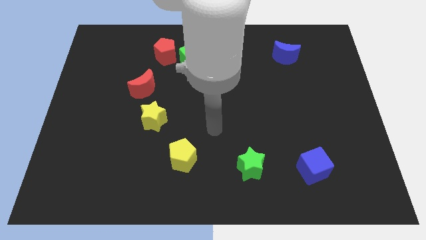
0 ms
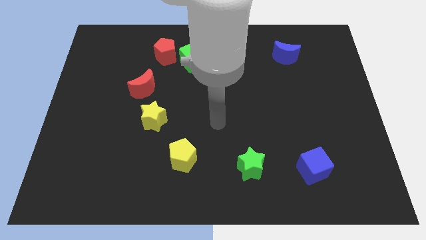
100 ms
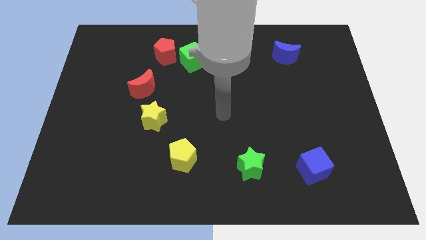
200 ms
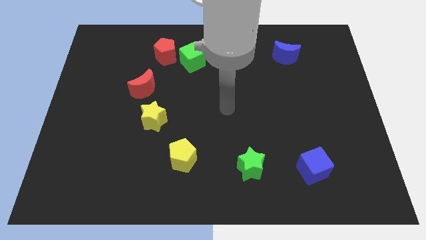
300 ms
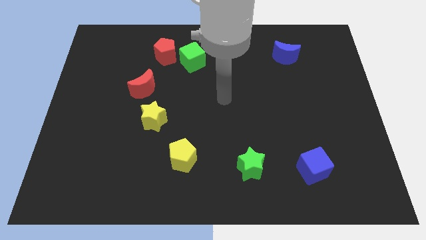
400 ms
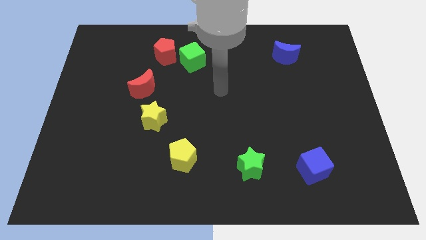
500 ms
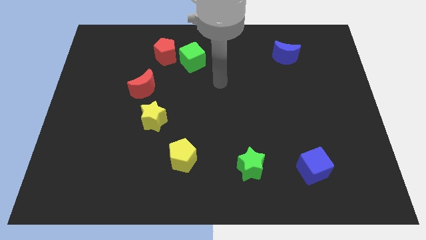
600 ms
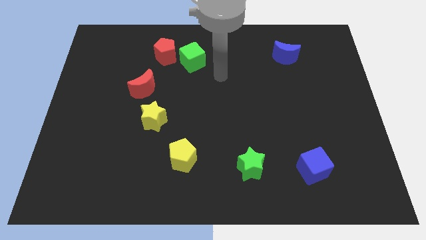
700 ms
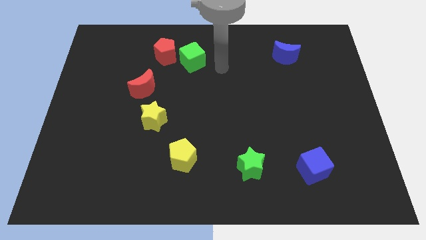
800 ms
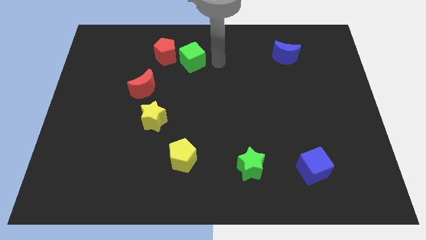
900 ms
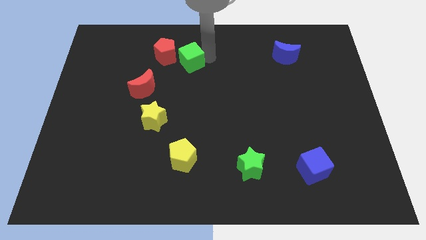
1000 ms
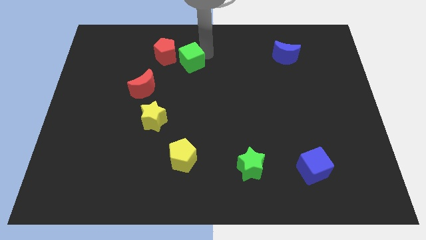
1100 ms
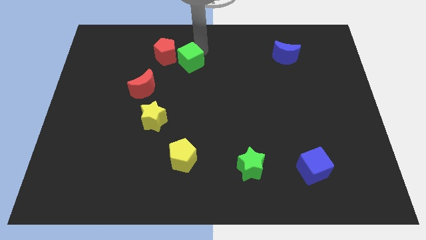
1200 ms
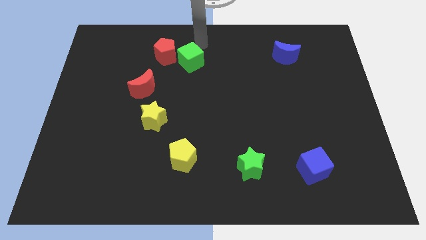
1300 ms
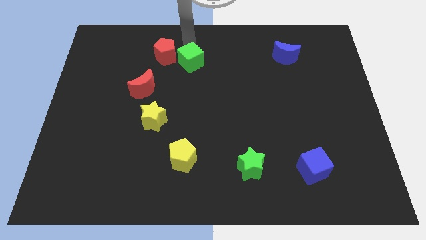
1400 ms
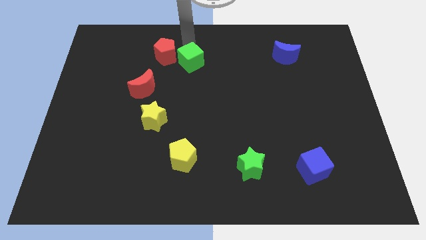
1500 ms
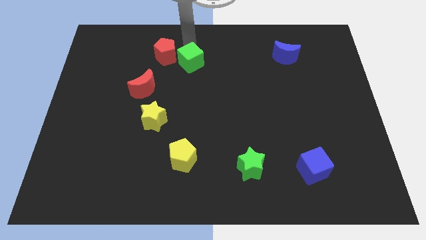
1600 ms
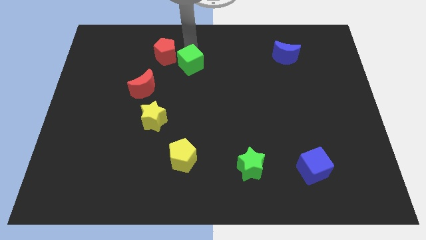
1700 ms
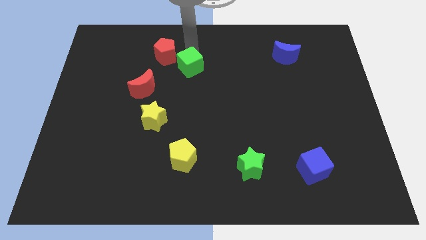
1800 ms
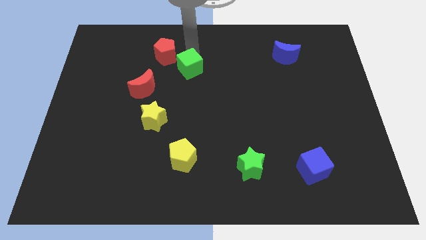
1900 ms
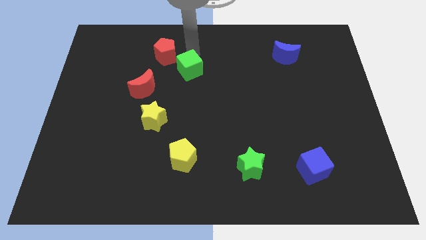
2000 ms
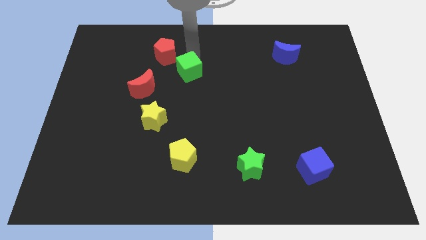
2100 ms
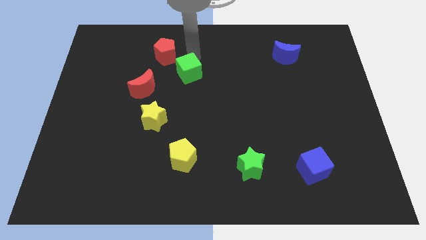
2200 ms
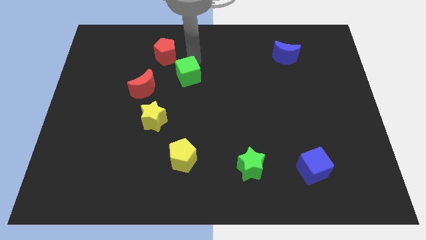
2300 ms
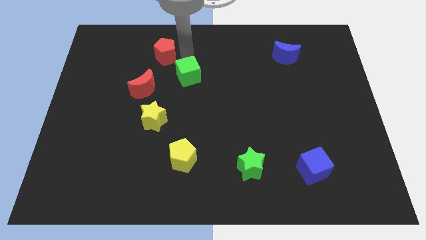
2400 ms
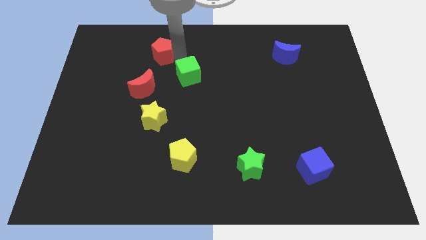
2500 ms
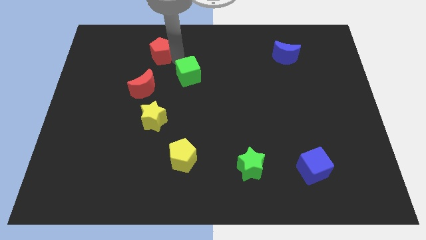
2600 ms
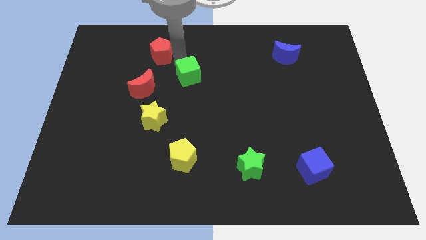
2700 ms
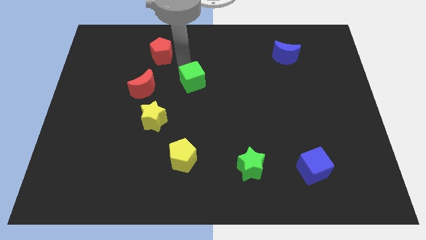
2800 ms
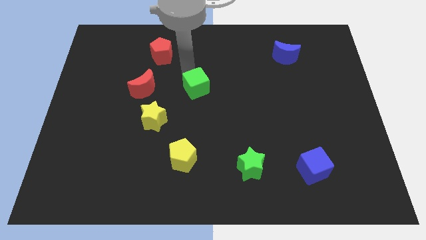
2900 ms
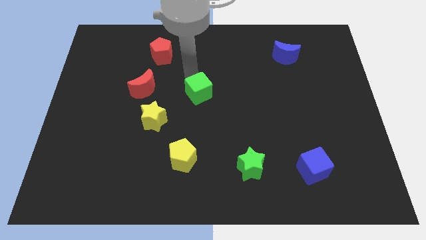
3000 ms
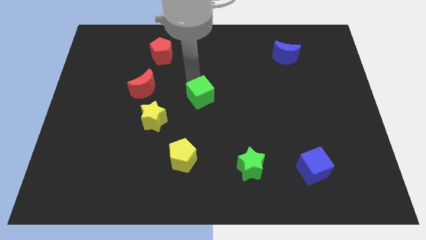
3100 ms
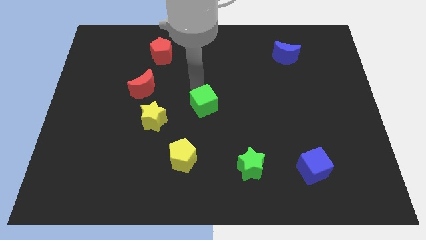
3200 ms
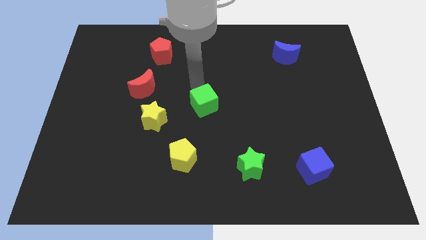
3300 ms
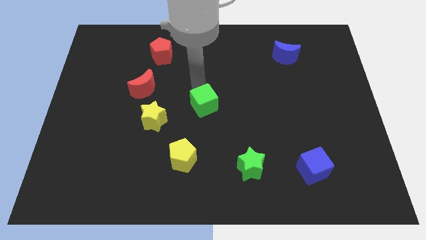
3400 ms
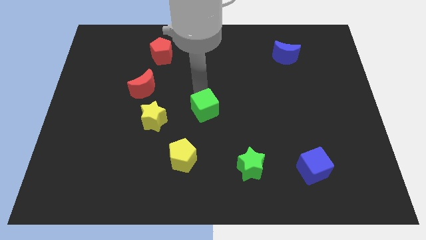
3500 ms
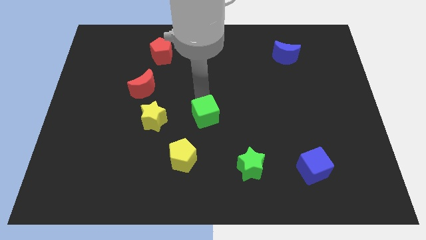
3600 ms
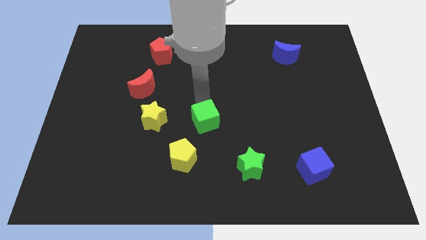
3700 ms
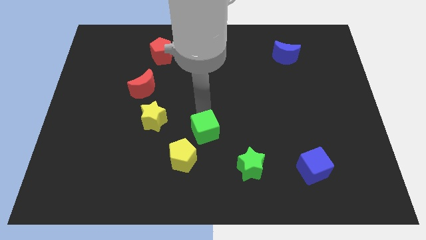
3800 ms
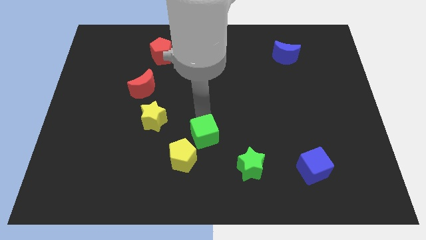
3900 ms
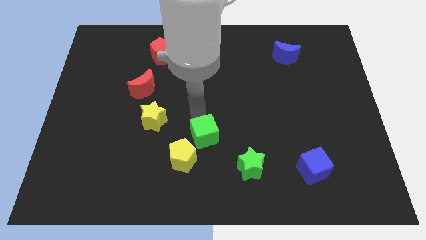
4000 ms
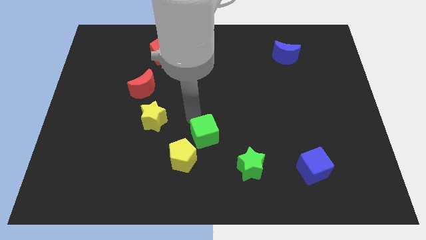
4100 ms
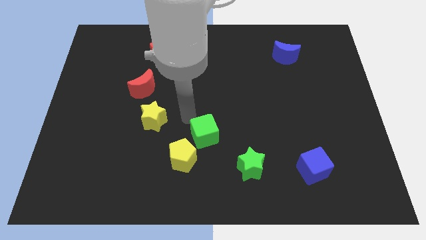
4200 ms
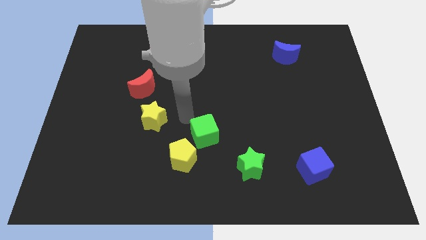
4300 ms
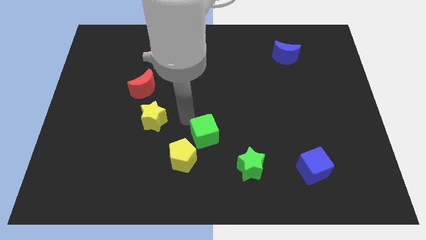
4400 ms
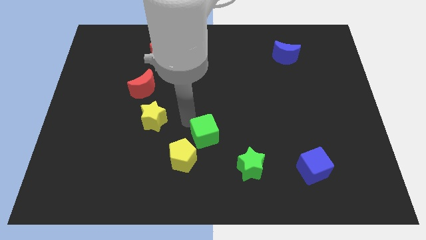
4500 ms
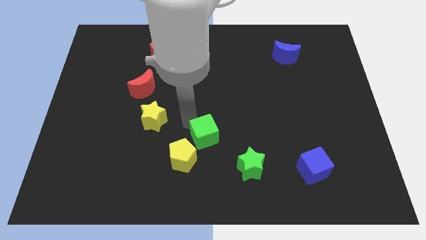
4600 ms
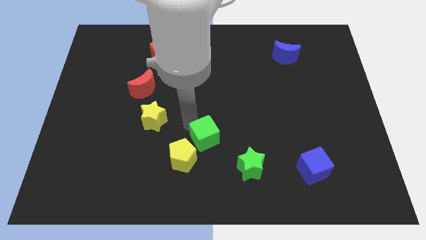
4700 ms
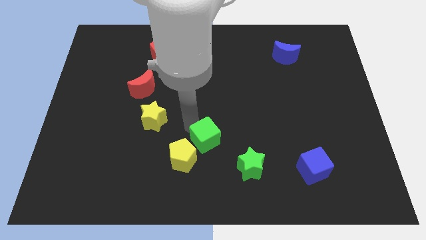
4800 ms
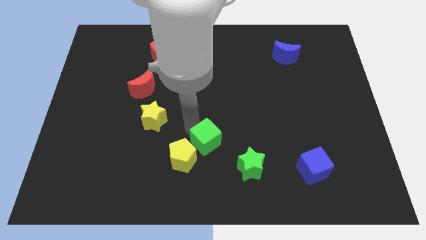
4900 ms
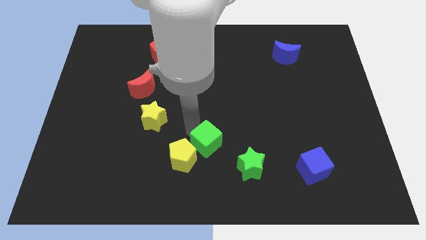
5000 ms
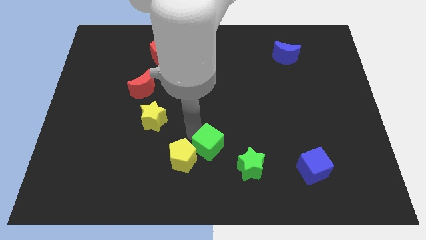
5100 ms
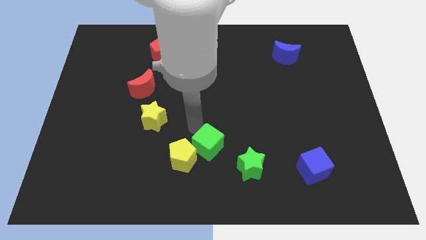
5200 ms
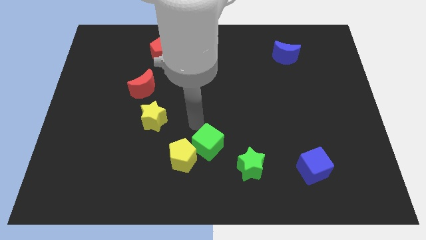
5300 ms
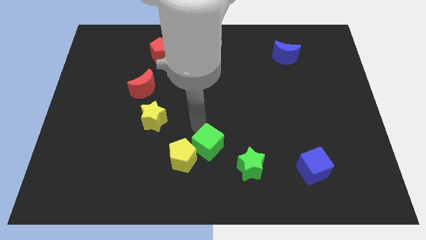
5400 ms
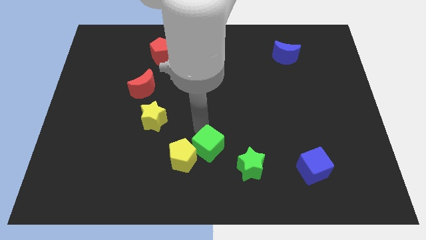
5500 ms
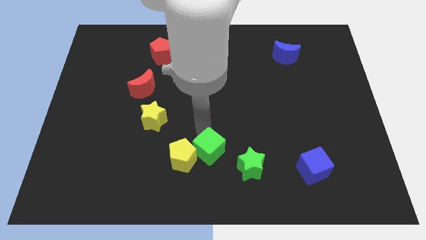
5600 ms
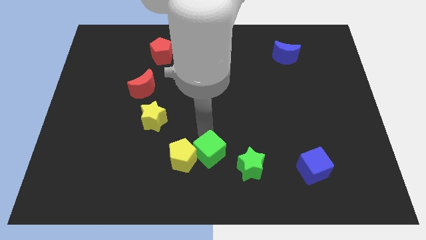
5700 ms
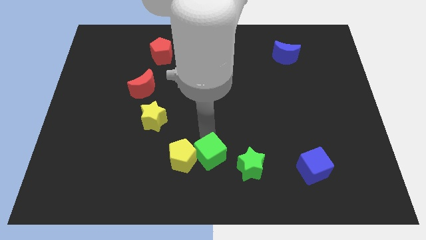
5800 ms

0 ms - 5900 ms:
push the green cube to the bottom

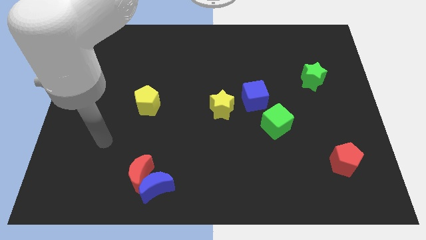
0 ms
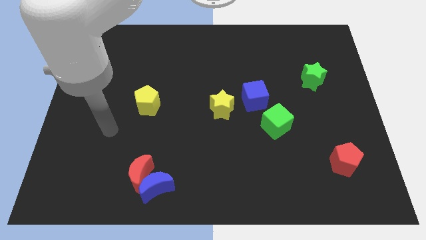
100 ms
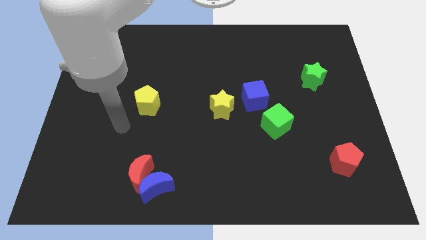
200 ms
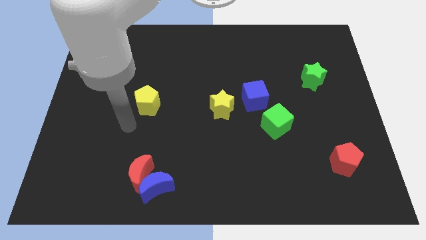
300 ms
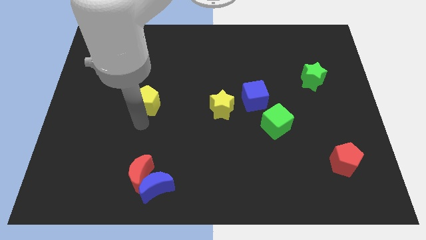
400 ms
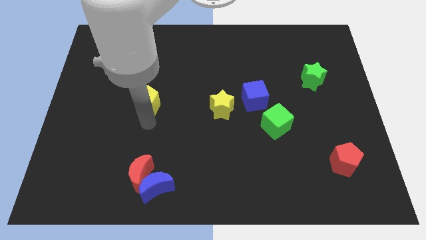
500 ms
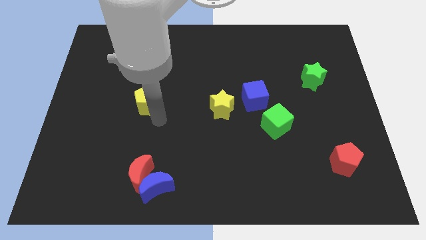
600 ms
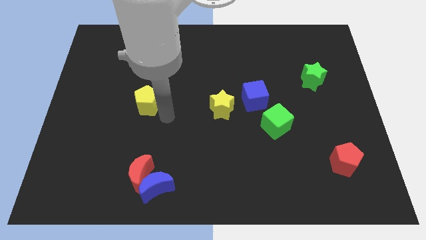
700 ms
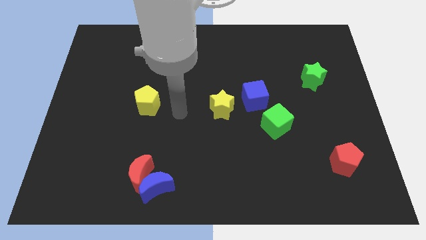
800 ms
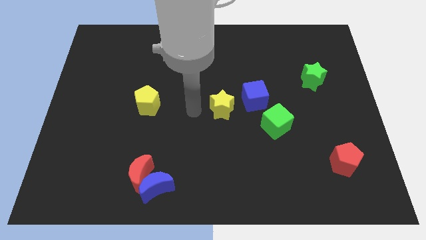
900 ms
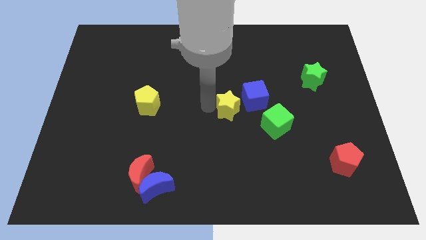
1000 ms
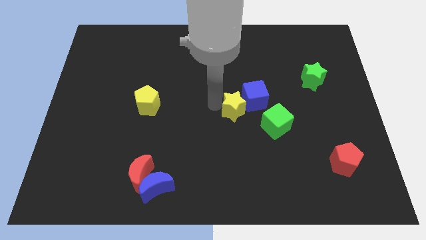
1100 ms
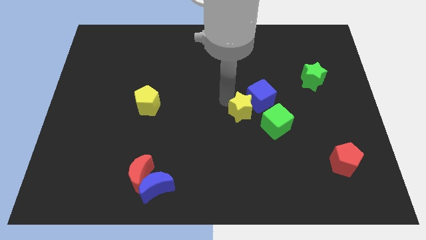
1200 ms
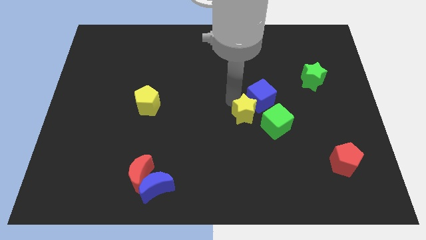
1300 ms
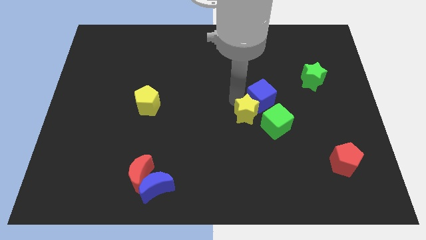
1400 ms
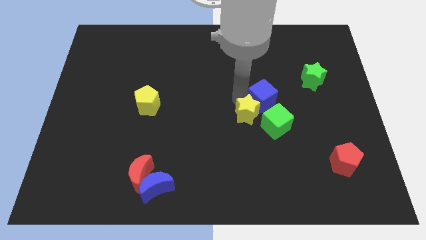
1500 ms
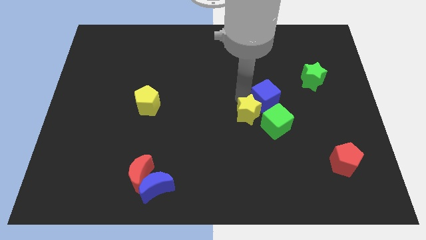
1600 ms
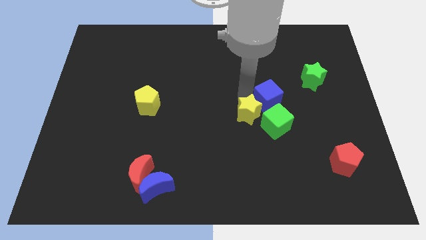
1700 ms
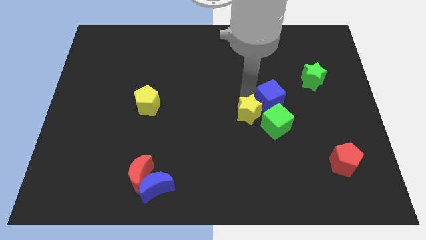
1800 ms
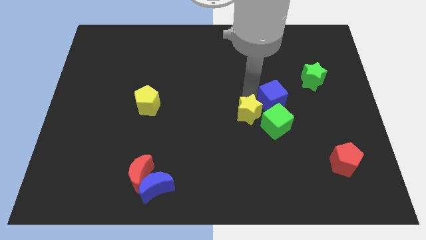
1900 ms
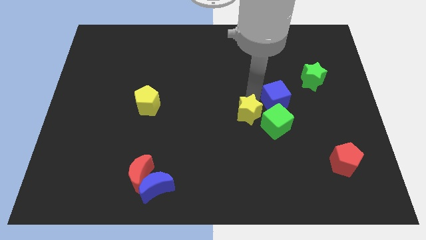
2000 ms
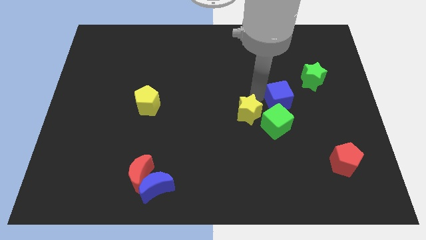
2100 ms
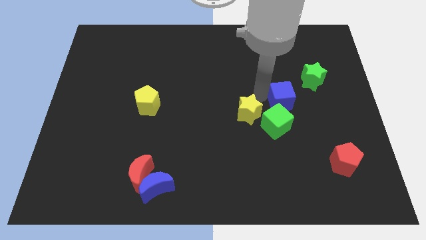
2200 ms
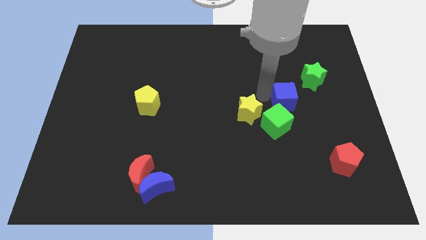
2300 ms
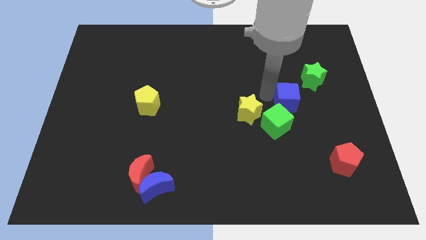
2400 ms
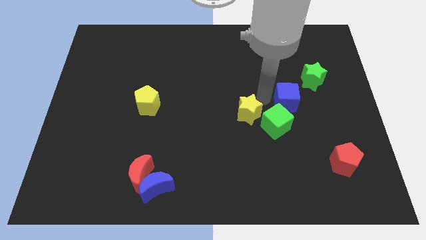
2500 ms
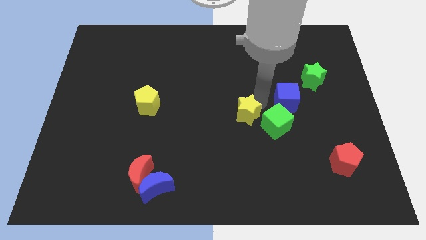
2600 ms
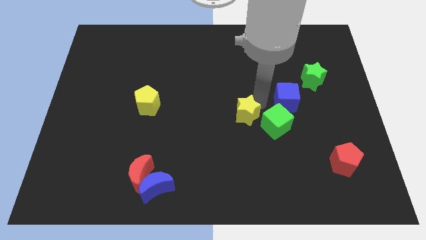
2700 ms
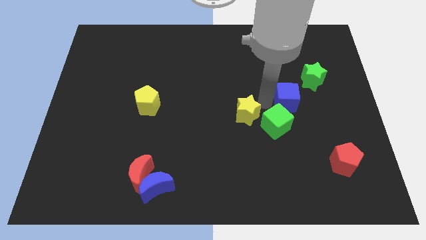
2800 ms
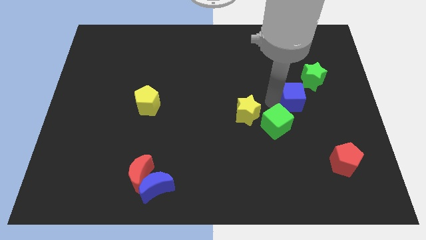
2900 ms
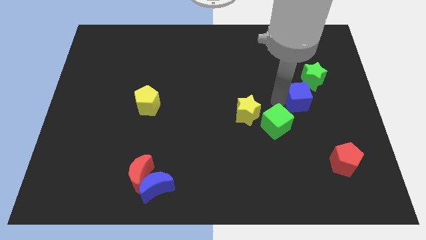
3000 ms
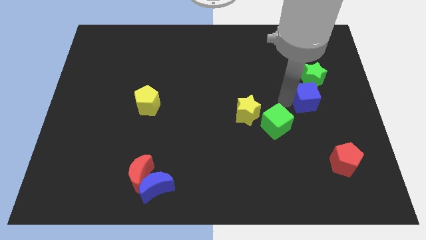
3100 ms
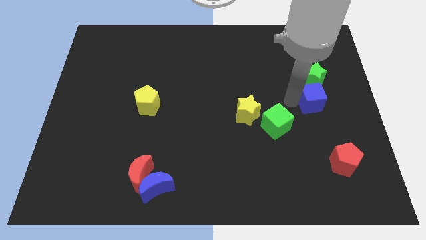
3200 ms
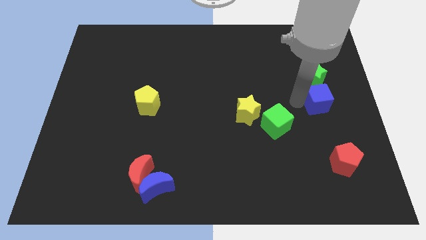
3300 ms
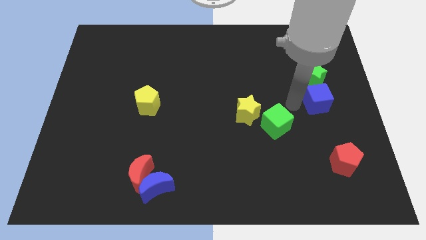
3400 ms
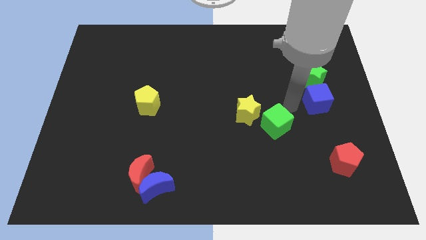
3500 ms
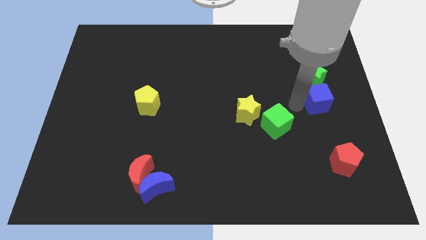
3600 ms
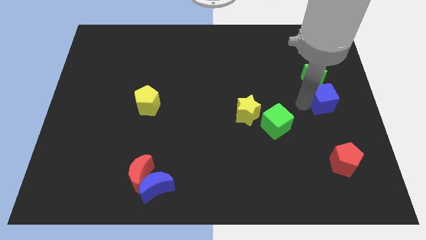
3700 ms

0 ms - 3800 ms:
push the blue cube to the right side of the board
